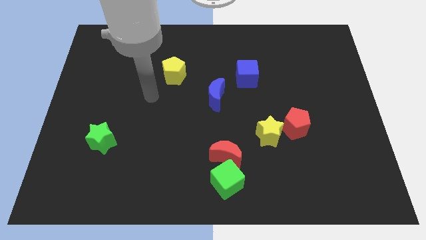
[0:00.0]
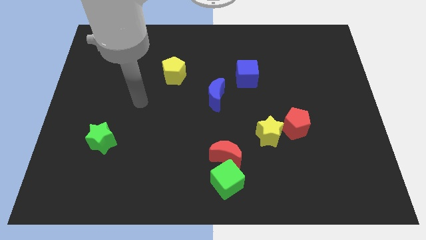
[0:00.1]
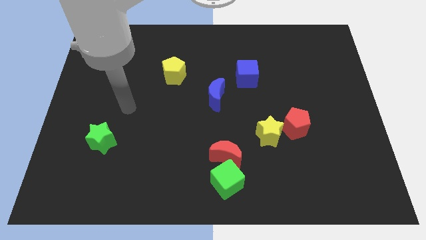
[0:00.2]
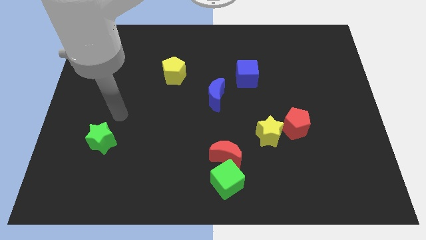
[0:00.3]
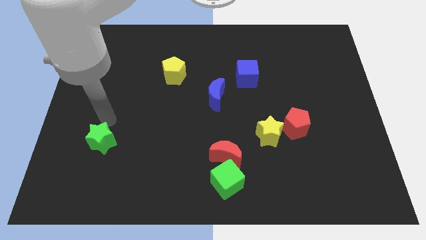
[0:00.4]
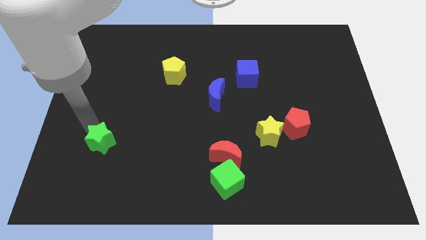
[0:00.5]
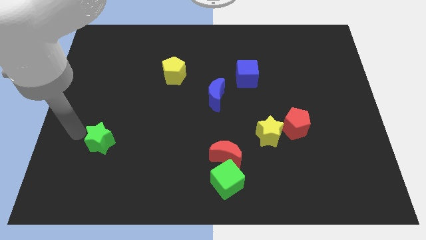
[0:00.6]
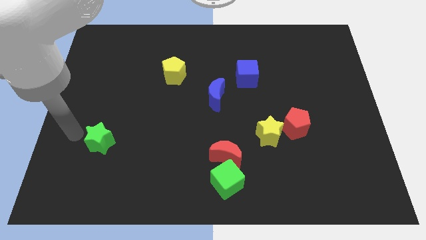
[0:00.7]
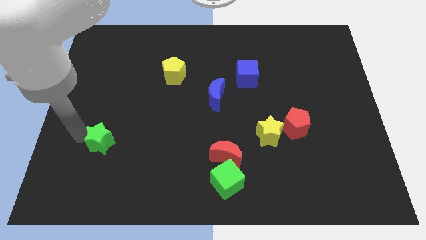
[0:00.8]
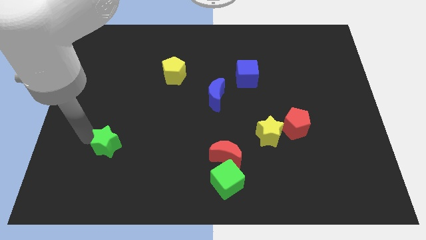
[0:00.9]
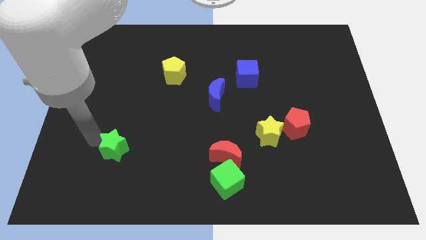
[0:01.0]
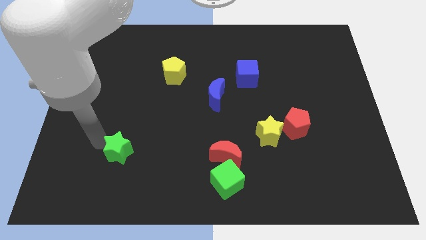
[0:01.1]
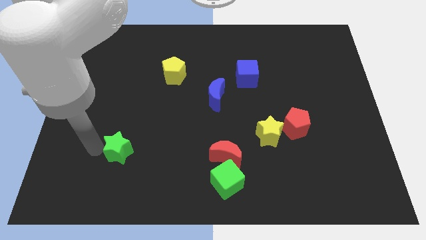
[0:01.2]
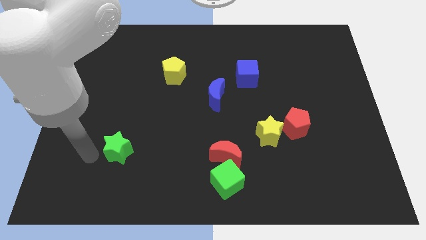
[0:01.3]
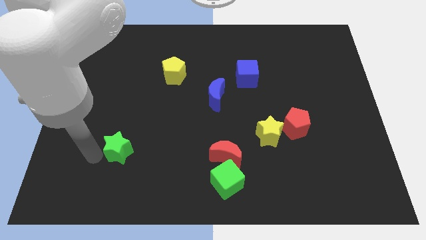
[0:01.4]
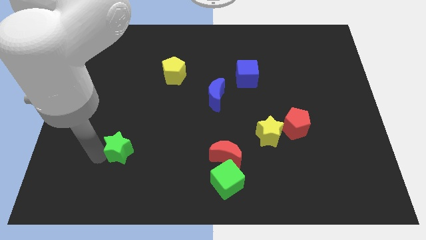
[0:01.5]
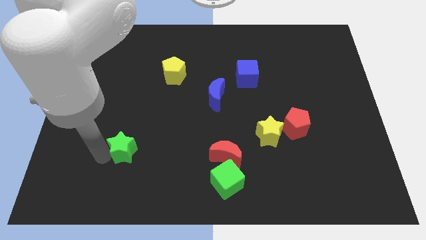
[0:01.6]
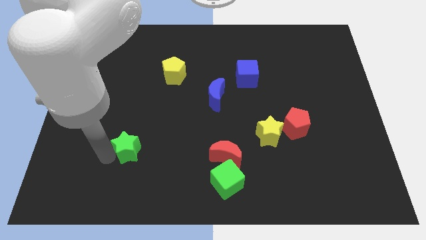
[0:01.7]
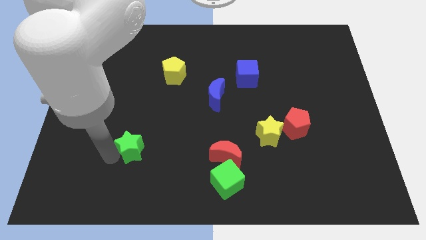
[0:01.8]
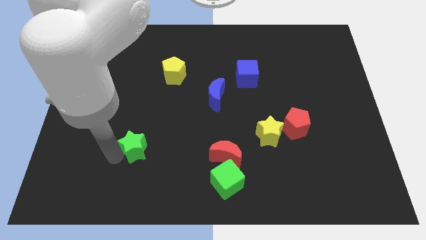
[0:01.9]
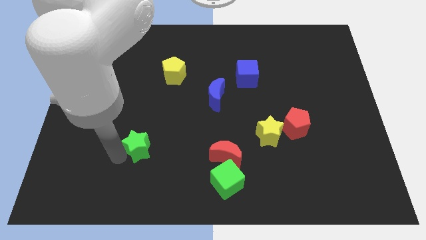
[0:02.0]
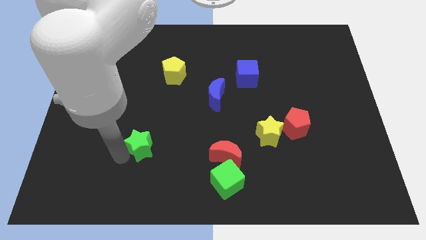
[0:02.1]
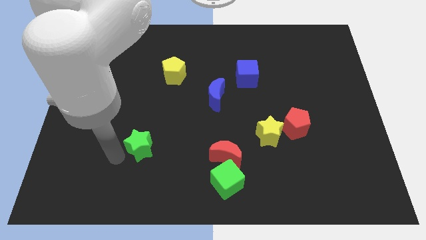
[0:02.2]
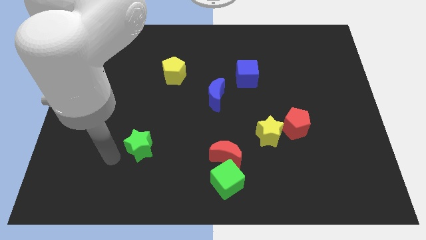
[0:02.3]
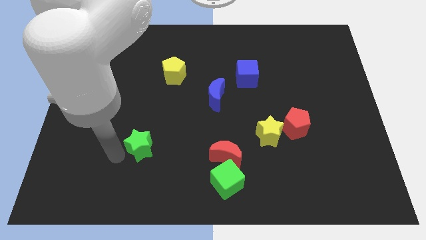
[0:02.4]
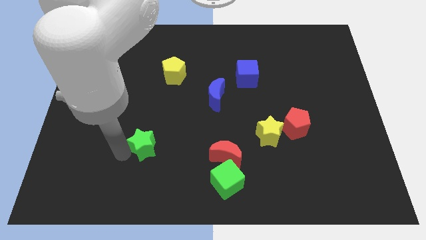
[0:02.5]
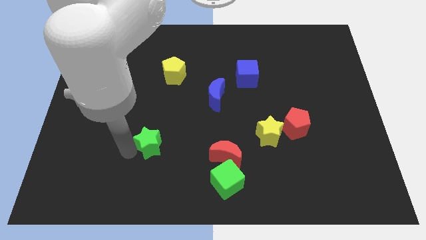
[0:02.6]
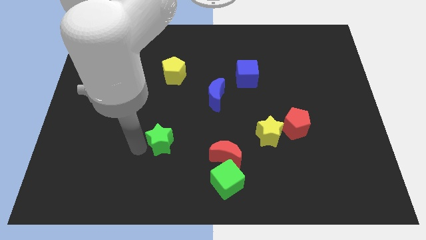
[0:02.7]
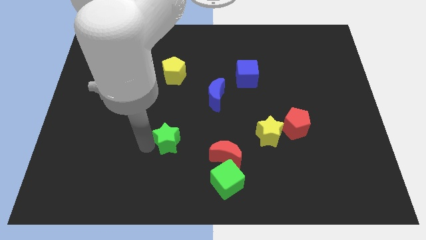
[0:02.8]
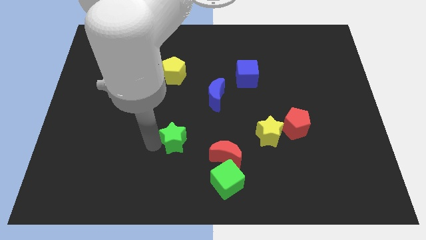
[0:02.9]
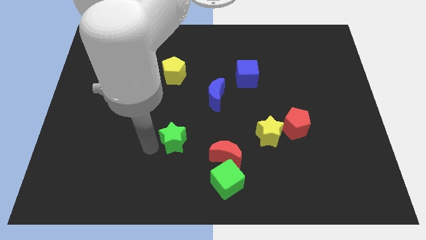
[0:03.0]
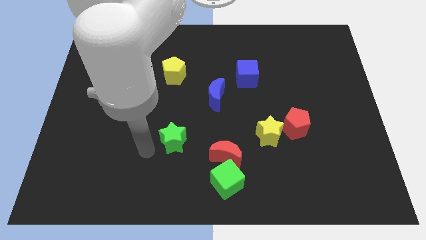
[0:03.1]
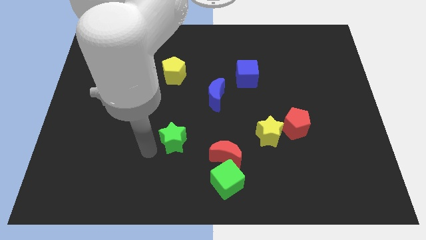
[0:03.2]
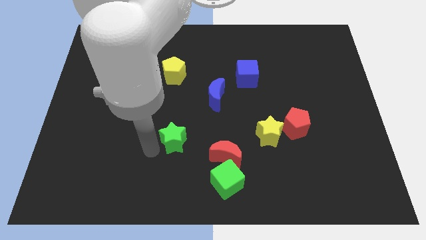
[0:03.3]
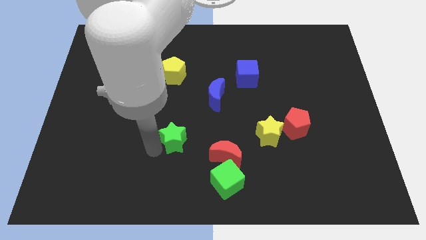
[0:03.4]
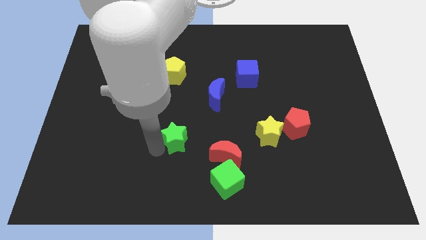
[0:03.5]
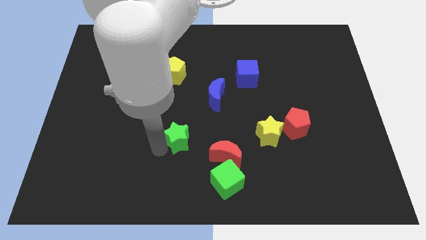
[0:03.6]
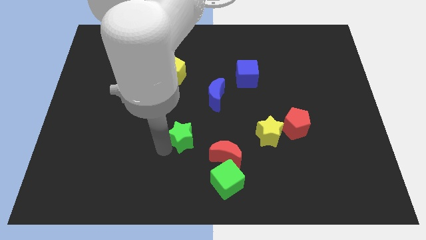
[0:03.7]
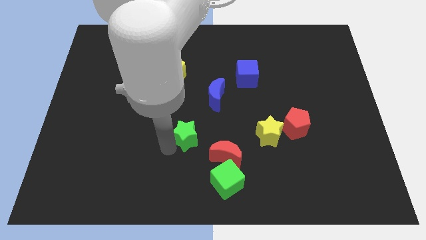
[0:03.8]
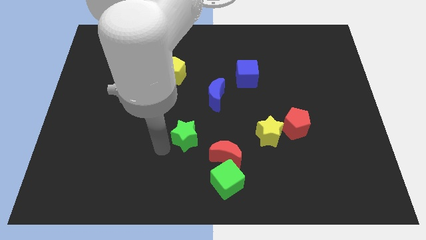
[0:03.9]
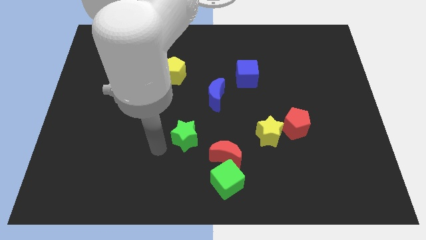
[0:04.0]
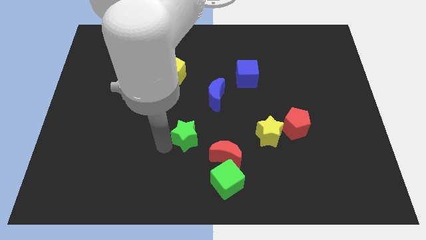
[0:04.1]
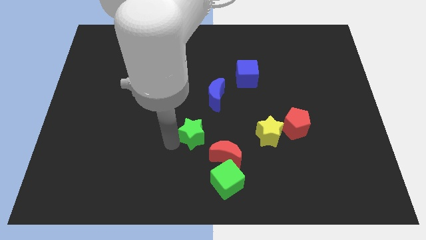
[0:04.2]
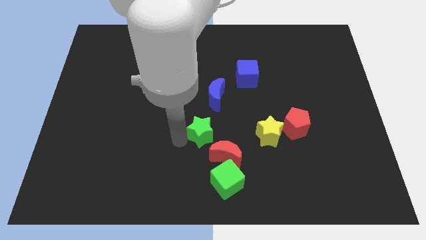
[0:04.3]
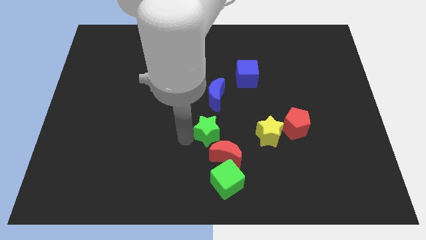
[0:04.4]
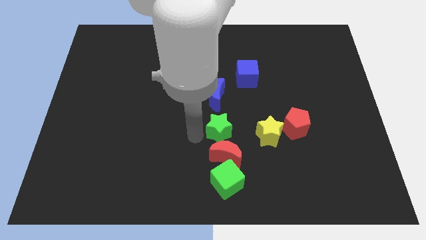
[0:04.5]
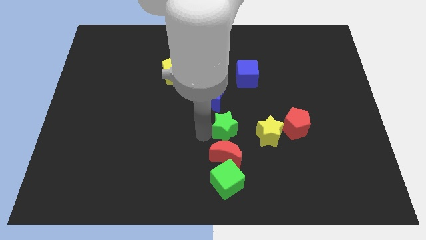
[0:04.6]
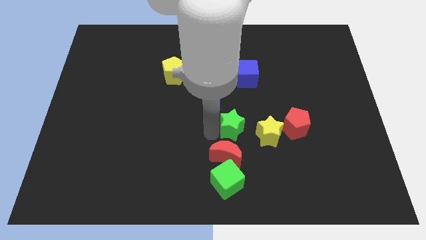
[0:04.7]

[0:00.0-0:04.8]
slide the green star to the top left side of the yellow star

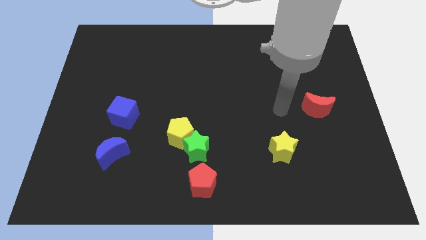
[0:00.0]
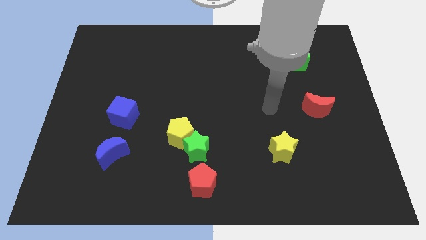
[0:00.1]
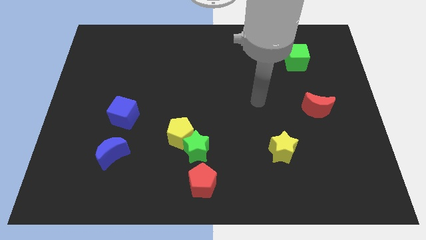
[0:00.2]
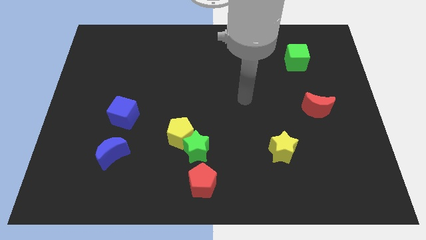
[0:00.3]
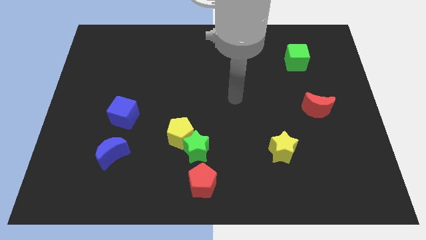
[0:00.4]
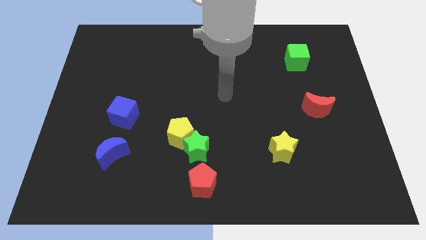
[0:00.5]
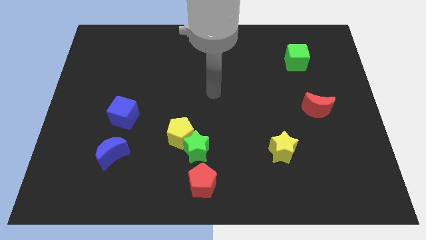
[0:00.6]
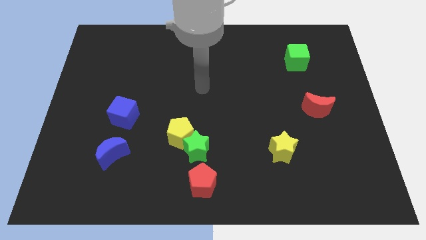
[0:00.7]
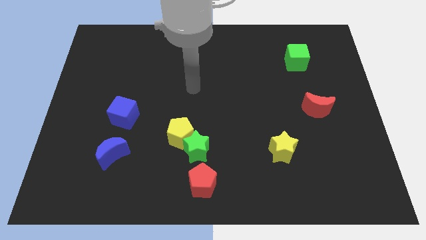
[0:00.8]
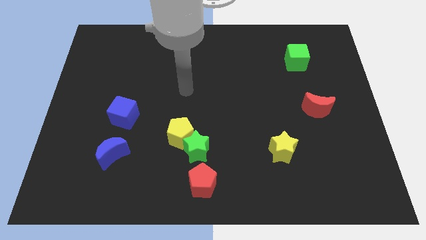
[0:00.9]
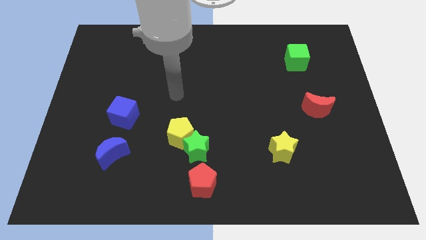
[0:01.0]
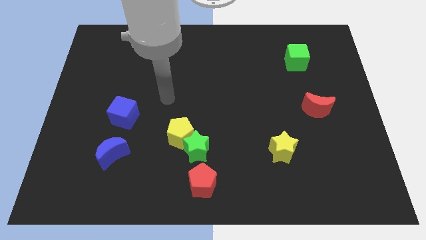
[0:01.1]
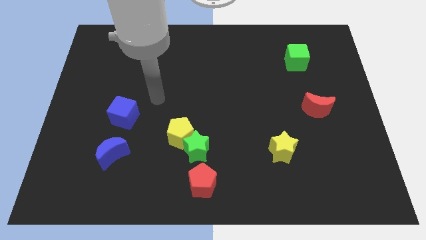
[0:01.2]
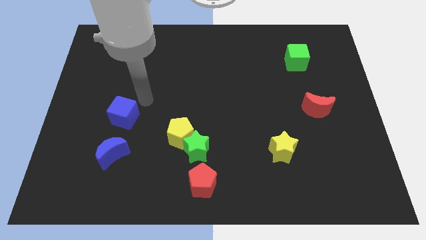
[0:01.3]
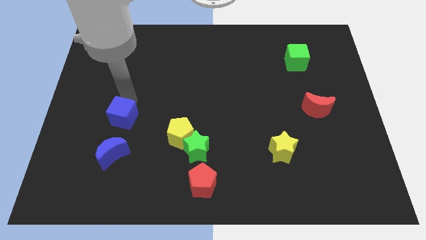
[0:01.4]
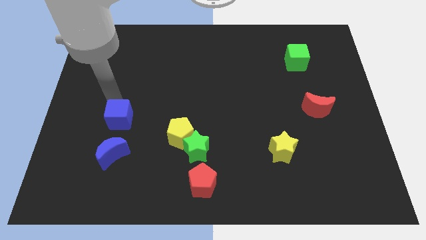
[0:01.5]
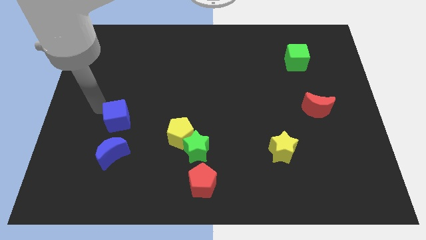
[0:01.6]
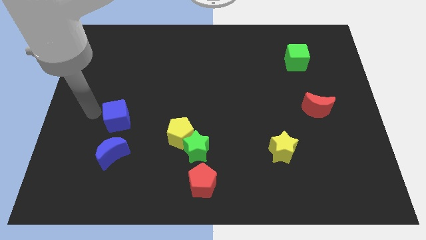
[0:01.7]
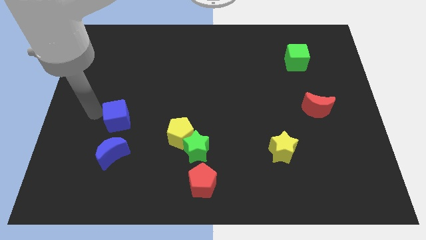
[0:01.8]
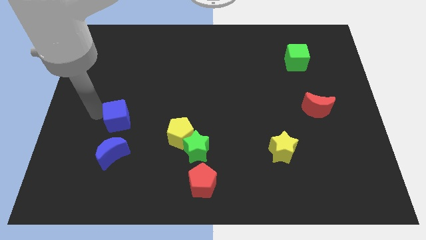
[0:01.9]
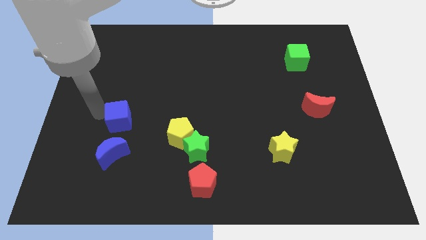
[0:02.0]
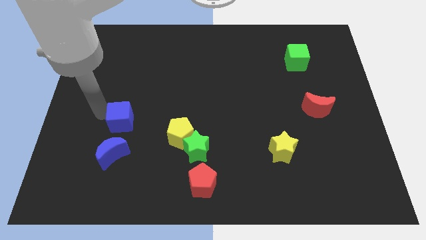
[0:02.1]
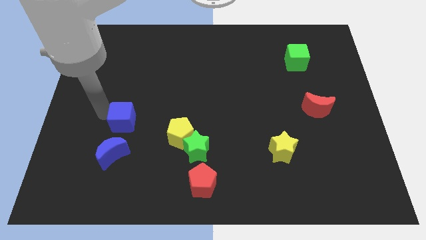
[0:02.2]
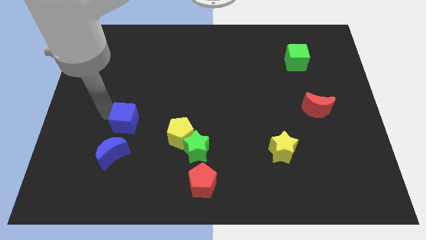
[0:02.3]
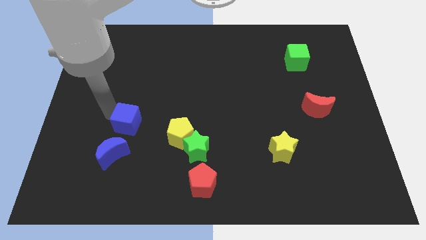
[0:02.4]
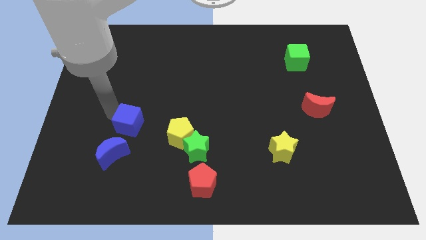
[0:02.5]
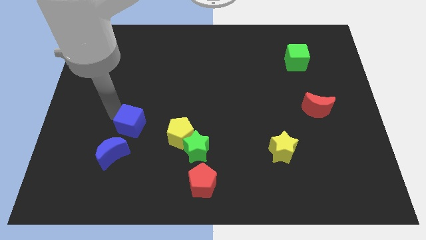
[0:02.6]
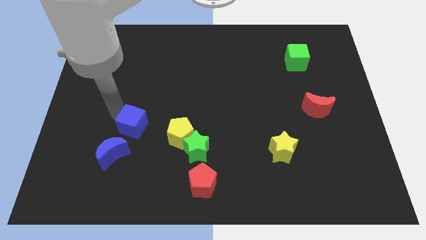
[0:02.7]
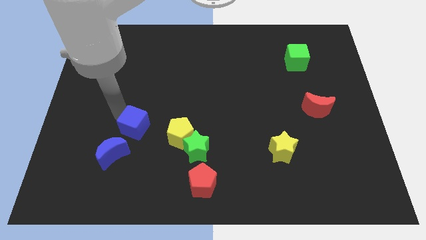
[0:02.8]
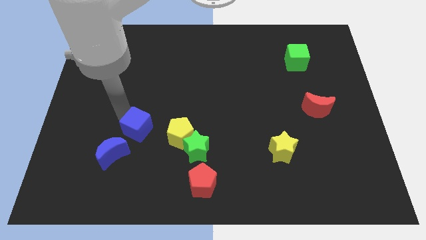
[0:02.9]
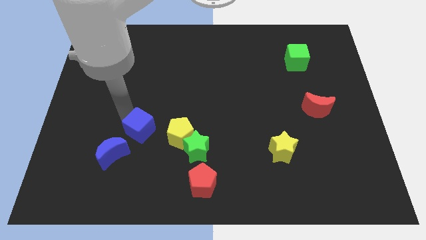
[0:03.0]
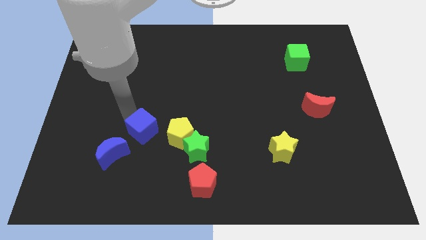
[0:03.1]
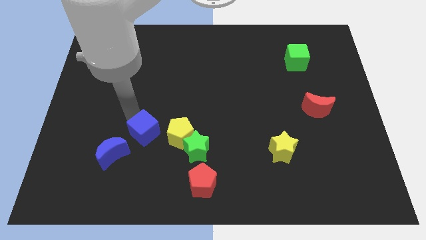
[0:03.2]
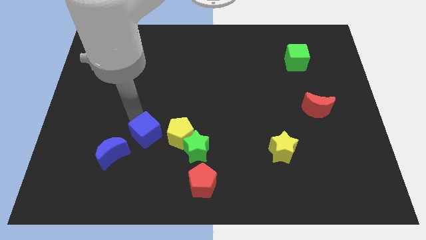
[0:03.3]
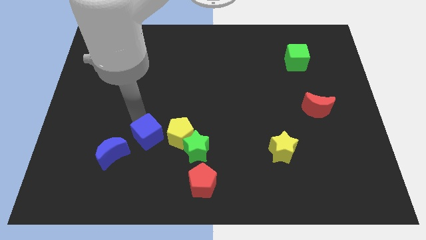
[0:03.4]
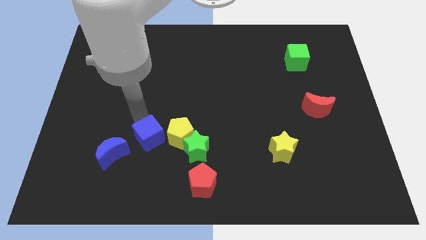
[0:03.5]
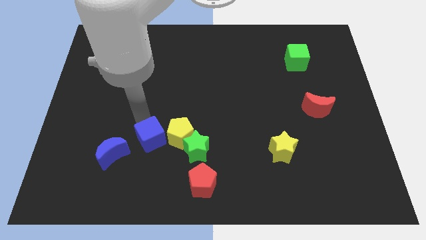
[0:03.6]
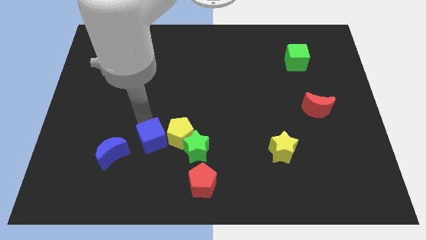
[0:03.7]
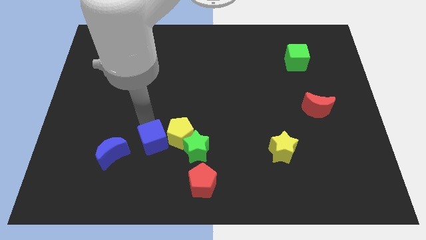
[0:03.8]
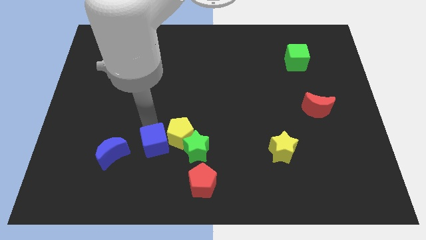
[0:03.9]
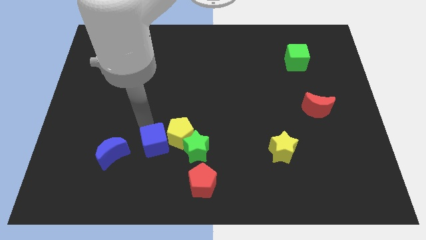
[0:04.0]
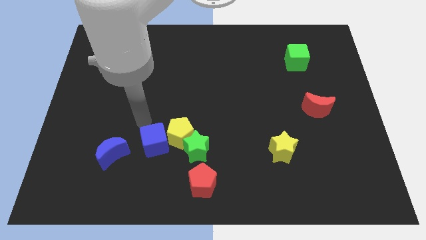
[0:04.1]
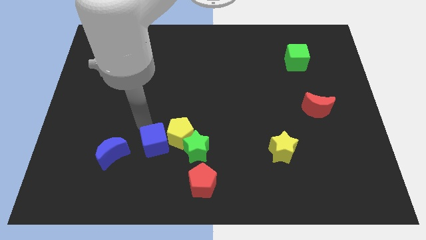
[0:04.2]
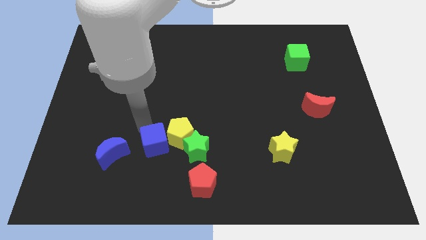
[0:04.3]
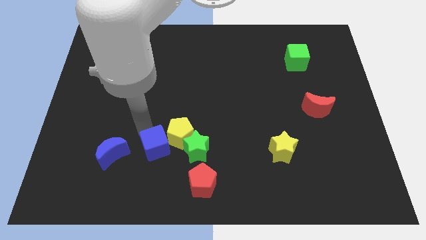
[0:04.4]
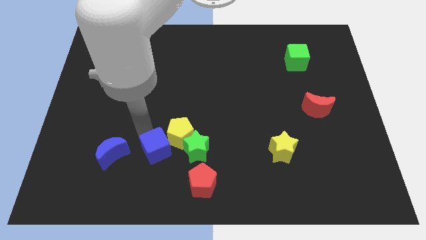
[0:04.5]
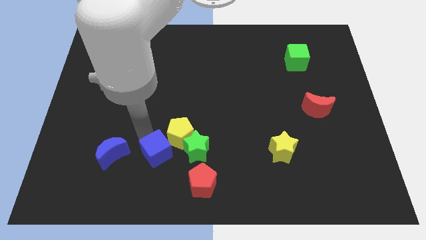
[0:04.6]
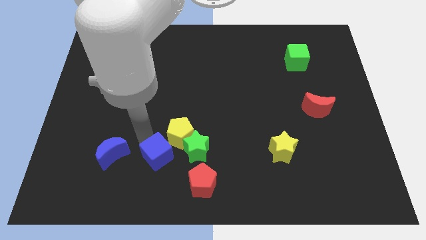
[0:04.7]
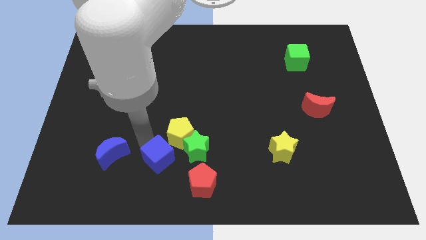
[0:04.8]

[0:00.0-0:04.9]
push the blue cube to the bottom left side of the green star
